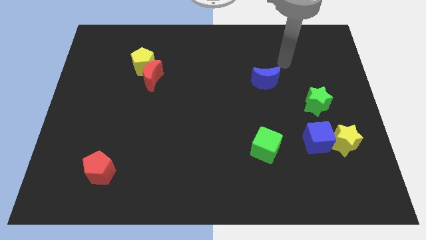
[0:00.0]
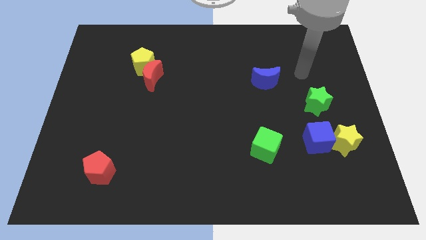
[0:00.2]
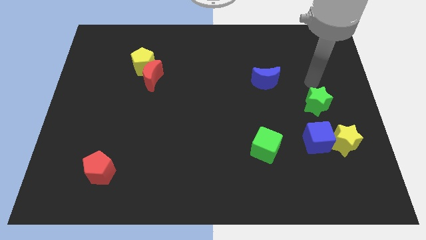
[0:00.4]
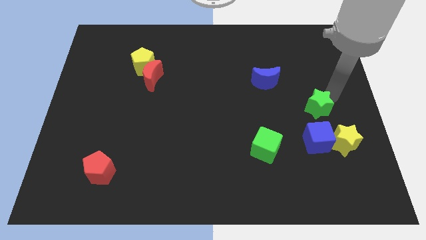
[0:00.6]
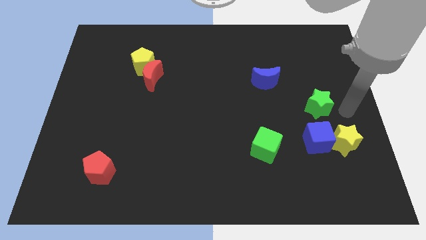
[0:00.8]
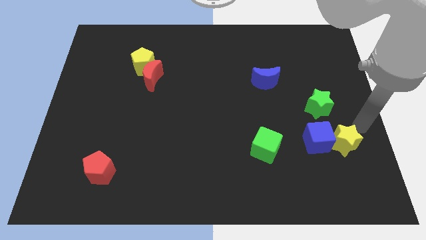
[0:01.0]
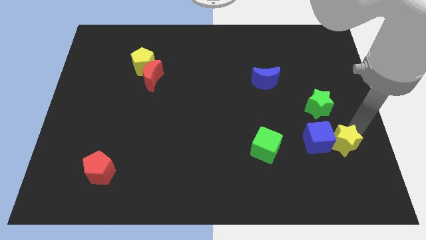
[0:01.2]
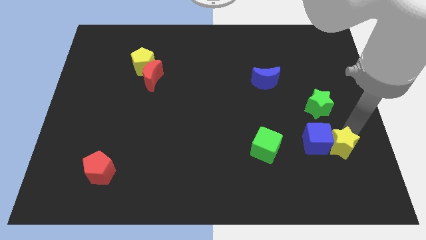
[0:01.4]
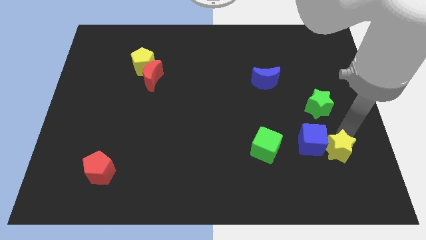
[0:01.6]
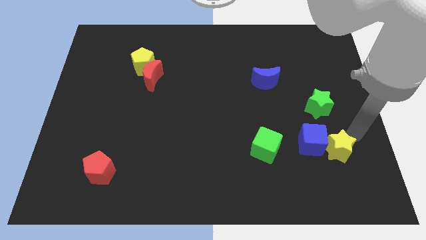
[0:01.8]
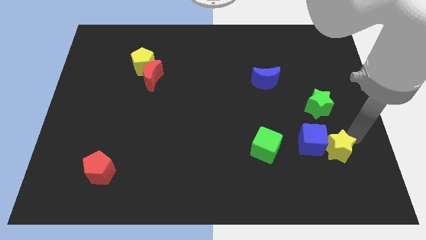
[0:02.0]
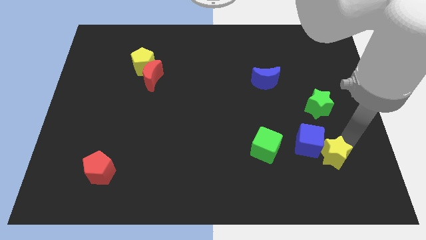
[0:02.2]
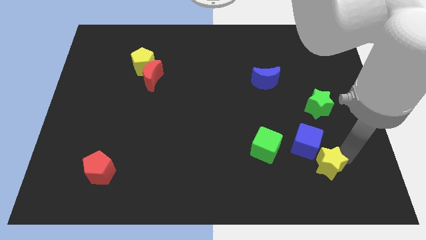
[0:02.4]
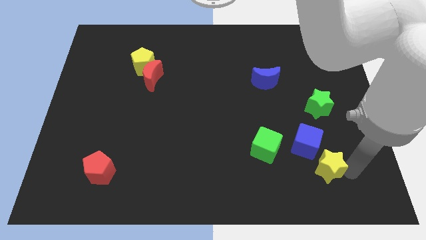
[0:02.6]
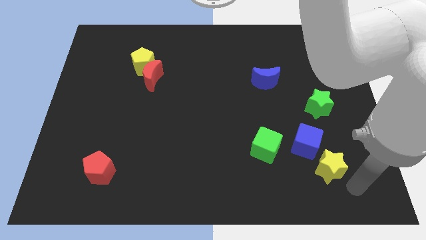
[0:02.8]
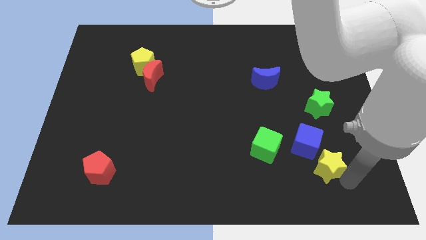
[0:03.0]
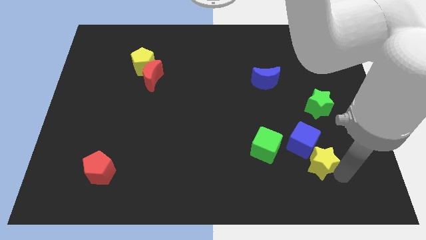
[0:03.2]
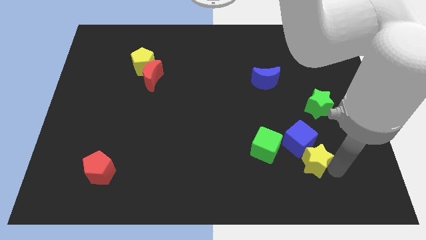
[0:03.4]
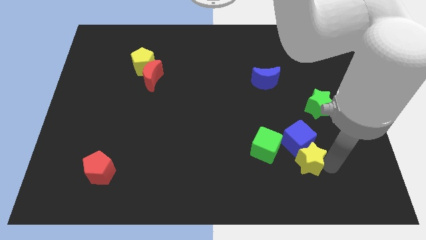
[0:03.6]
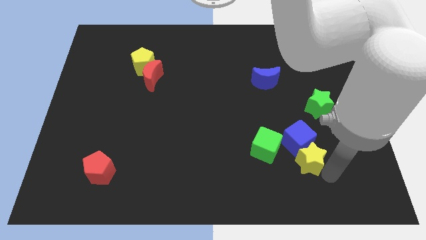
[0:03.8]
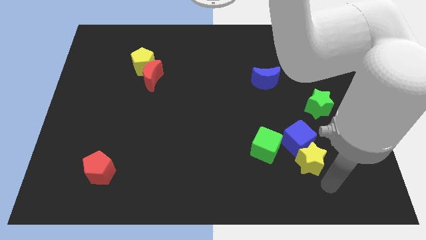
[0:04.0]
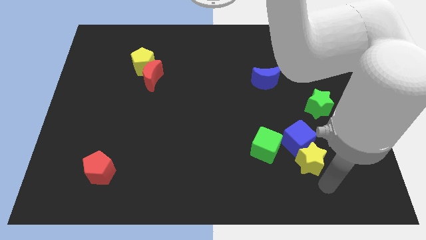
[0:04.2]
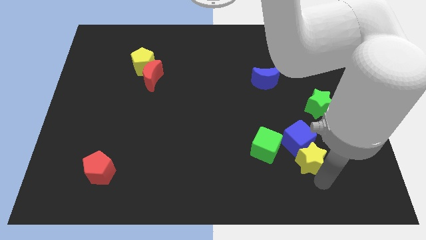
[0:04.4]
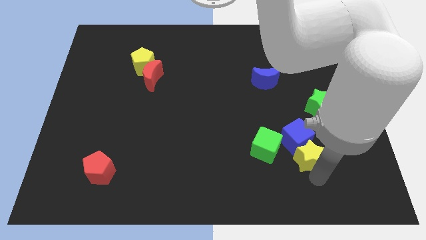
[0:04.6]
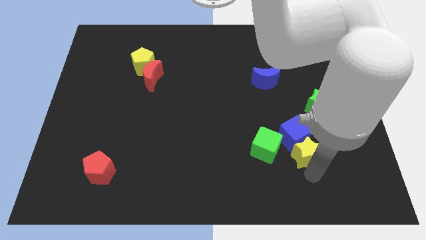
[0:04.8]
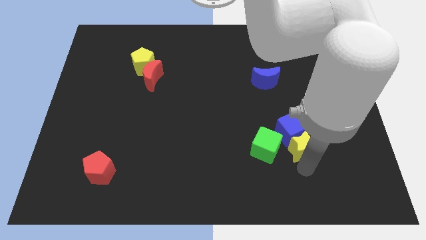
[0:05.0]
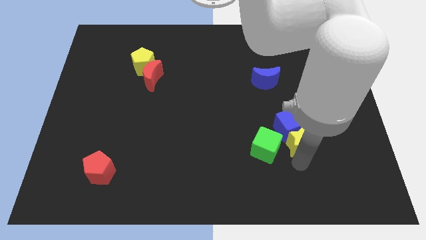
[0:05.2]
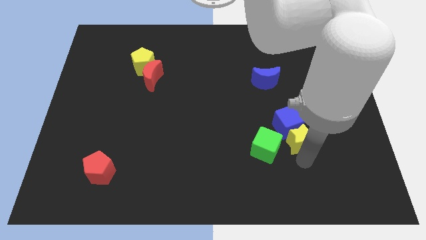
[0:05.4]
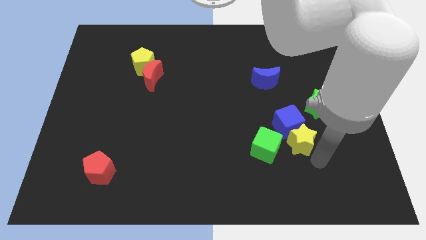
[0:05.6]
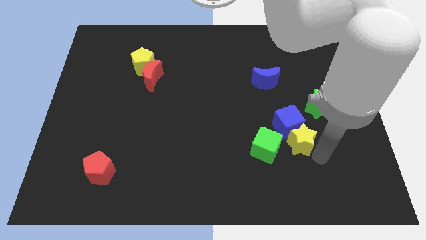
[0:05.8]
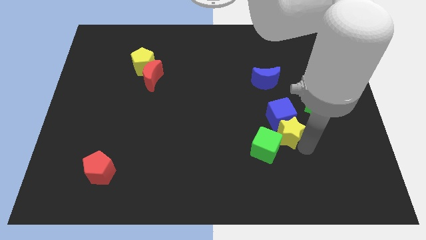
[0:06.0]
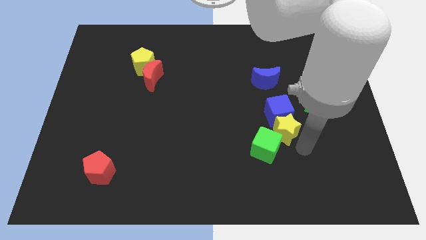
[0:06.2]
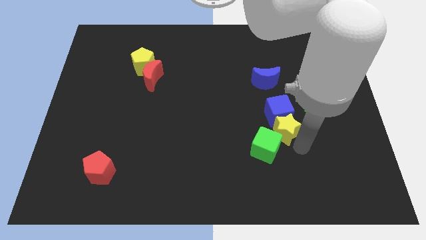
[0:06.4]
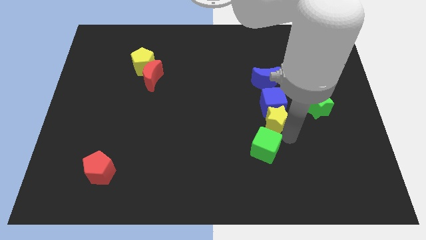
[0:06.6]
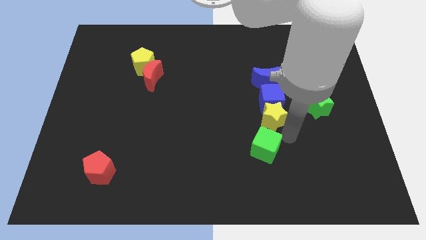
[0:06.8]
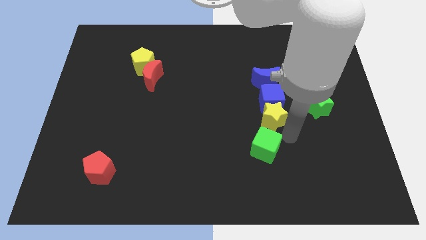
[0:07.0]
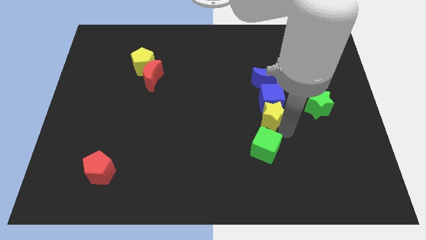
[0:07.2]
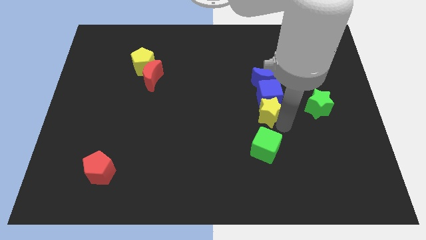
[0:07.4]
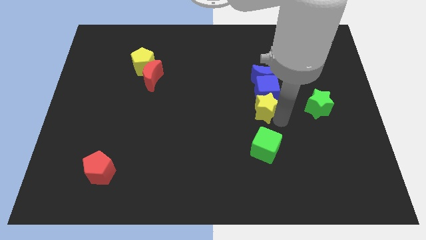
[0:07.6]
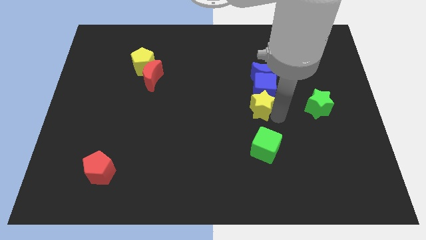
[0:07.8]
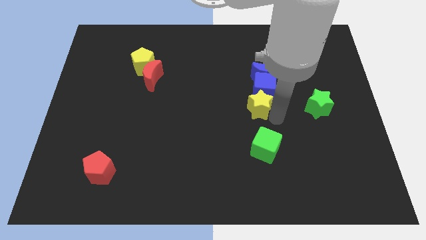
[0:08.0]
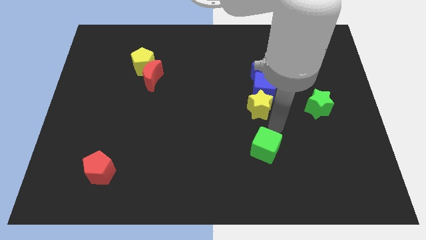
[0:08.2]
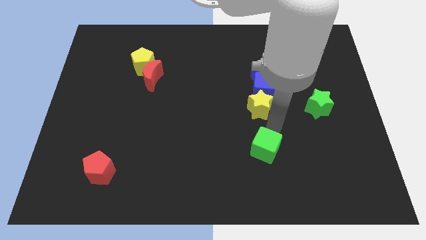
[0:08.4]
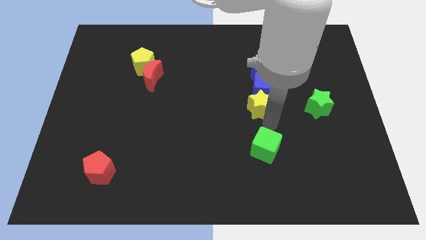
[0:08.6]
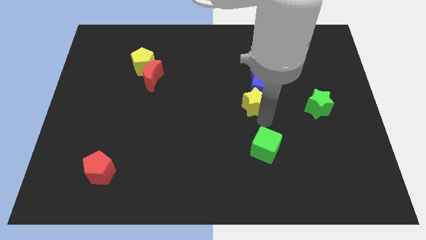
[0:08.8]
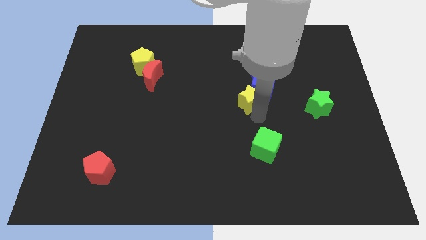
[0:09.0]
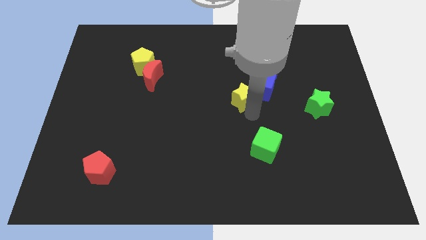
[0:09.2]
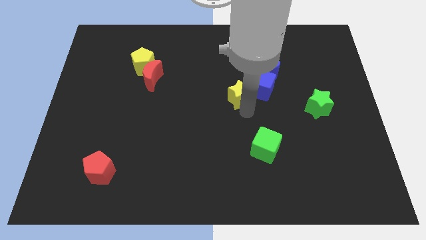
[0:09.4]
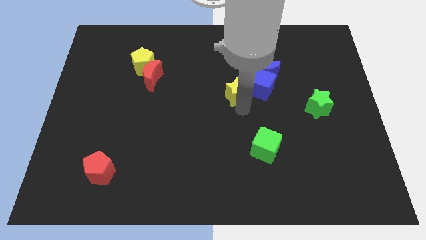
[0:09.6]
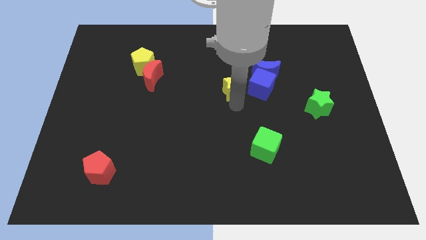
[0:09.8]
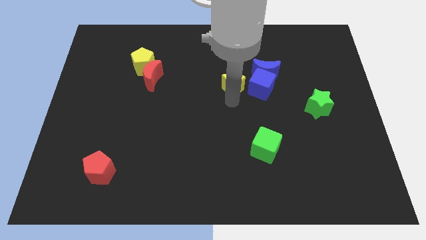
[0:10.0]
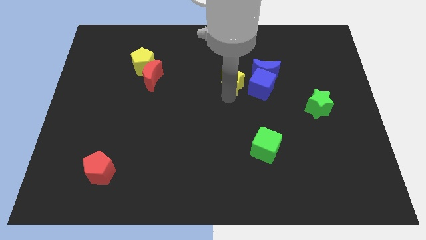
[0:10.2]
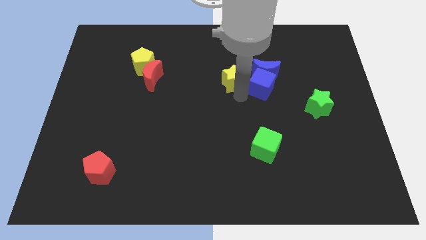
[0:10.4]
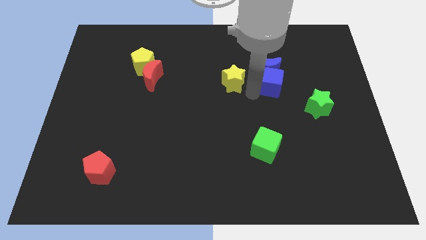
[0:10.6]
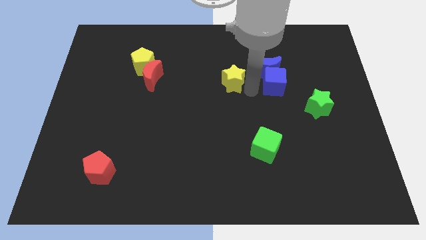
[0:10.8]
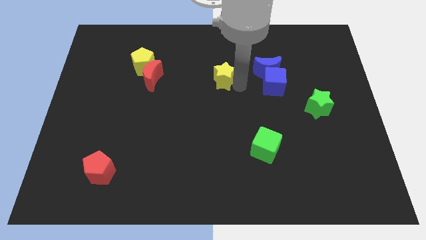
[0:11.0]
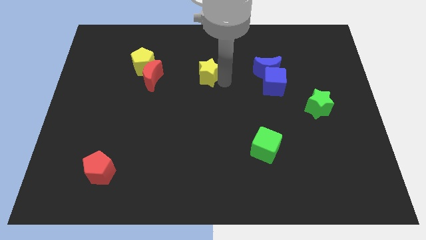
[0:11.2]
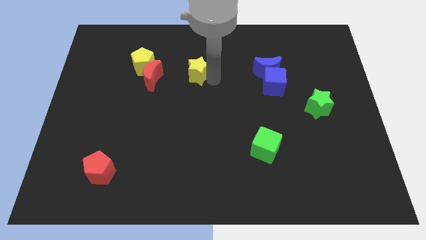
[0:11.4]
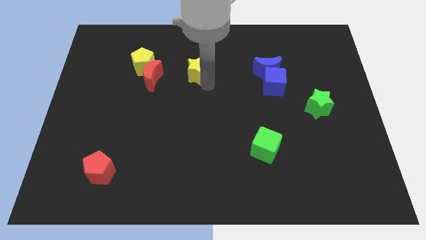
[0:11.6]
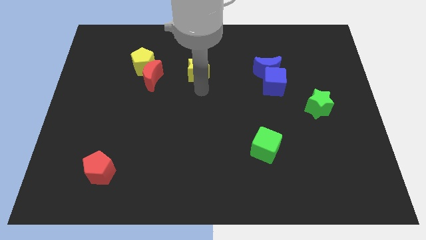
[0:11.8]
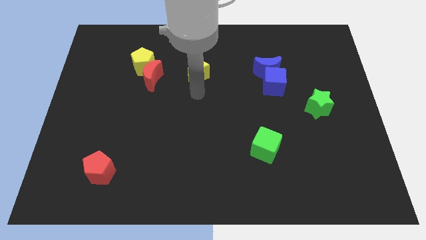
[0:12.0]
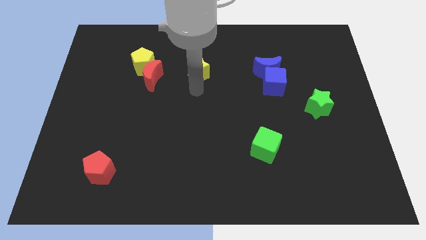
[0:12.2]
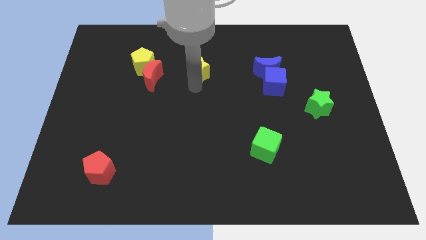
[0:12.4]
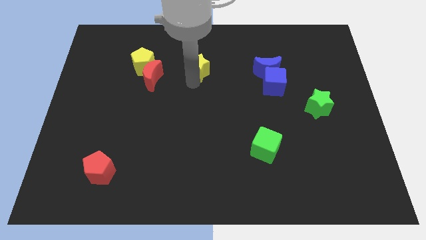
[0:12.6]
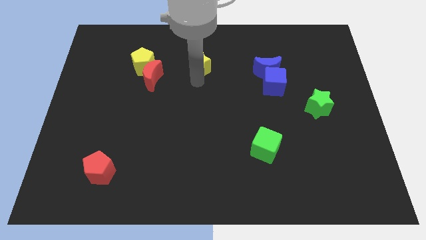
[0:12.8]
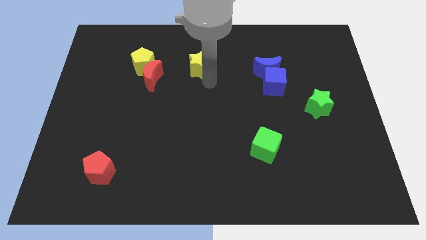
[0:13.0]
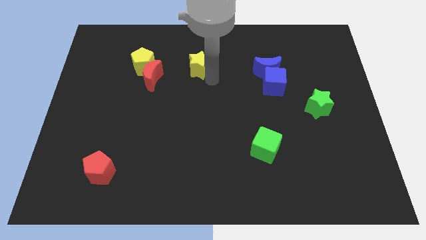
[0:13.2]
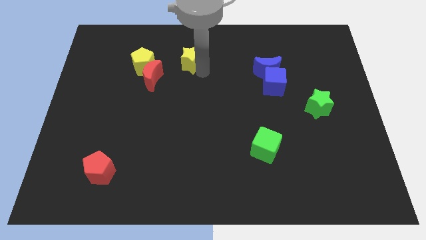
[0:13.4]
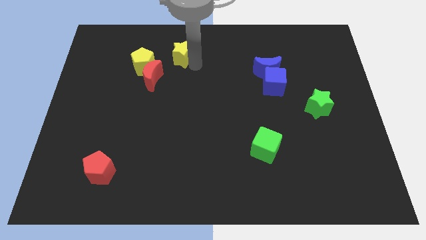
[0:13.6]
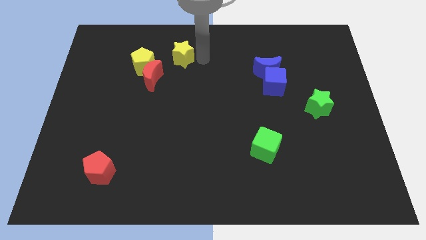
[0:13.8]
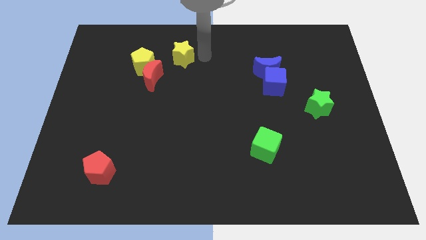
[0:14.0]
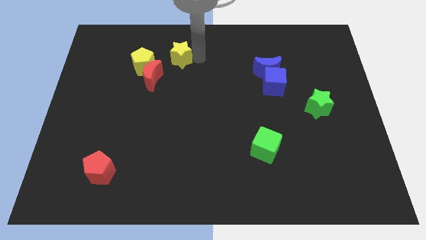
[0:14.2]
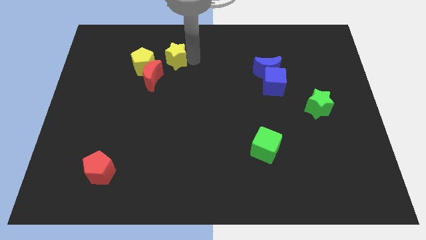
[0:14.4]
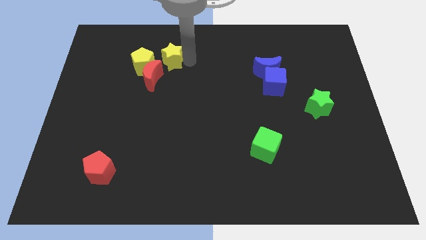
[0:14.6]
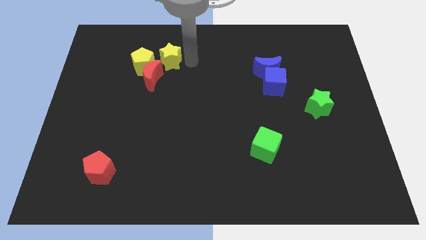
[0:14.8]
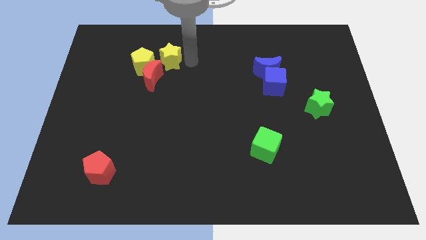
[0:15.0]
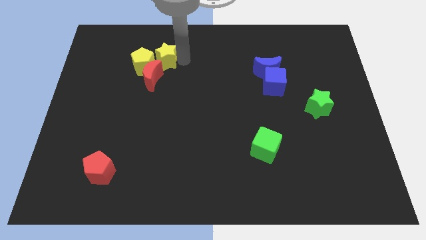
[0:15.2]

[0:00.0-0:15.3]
push the yellow star to the yellow pentagon
